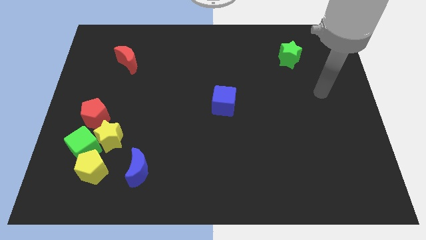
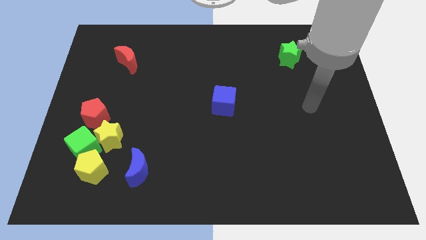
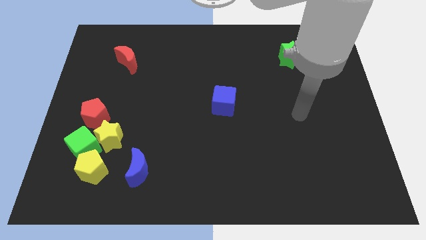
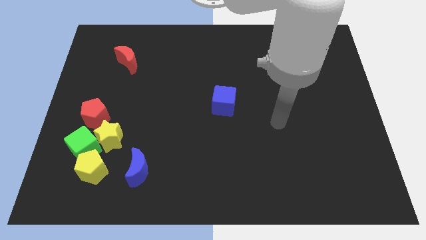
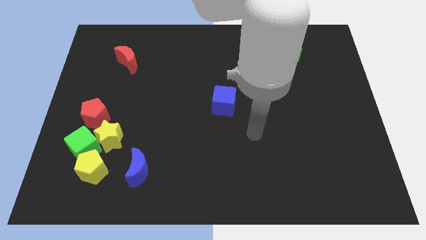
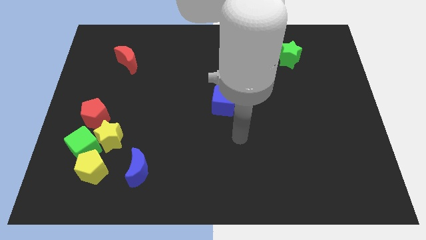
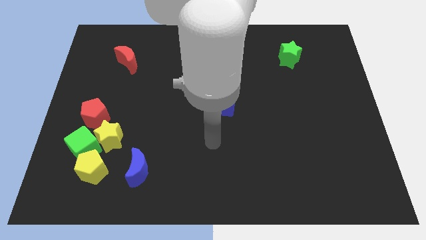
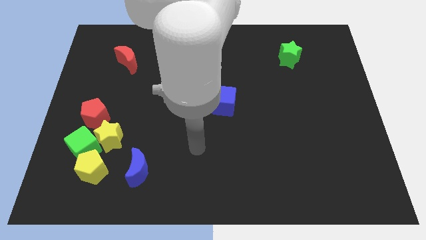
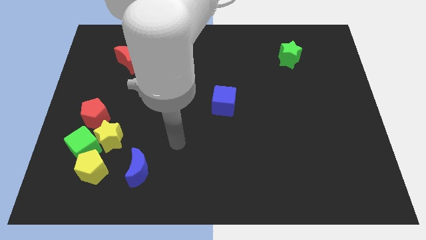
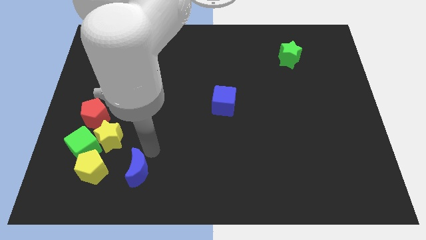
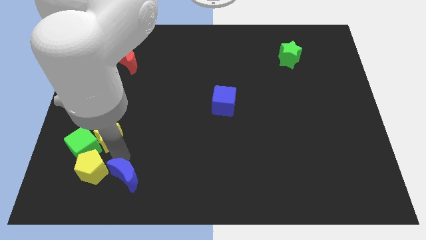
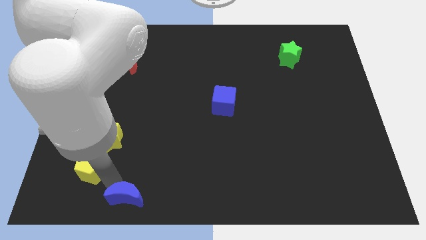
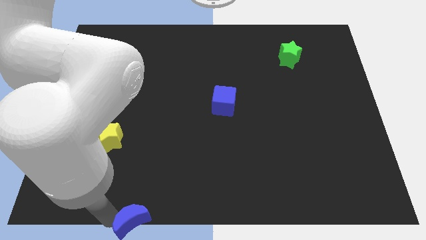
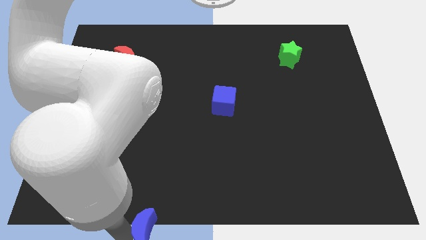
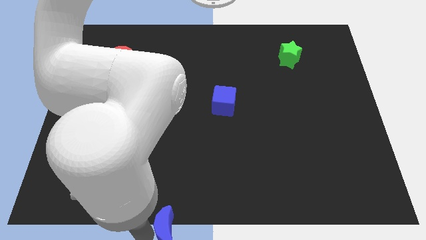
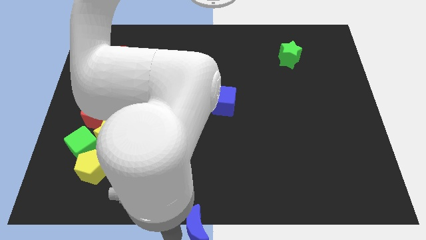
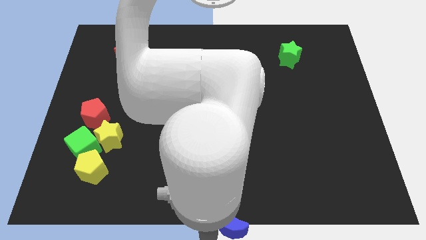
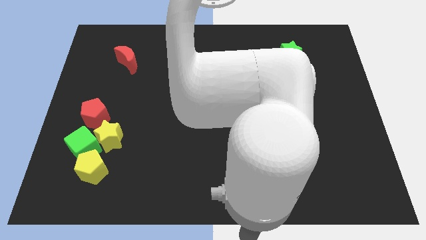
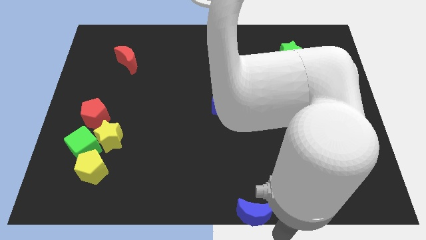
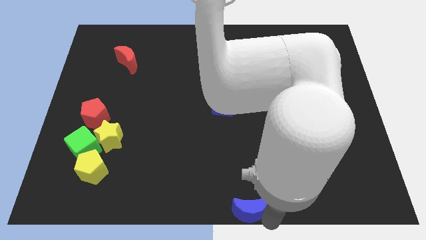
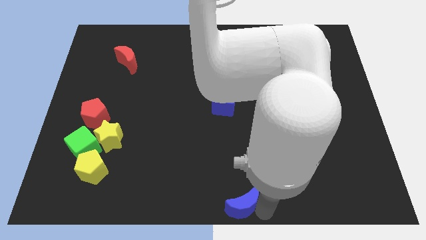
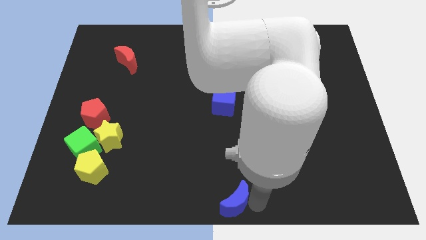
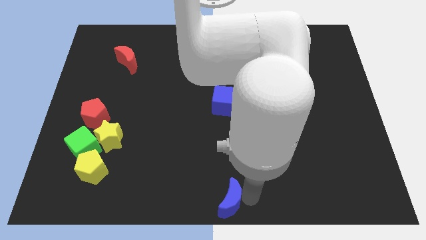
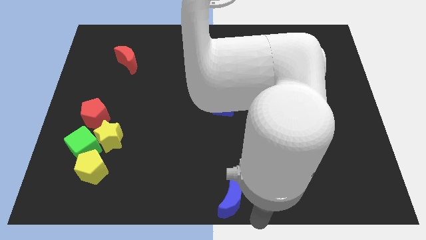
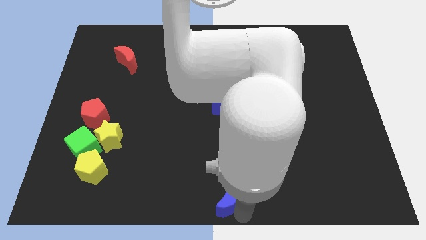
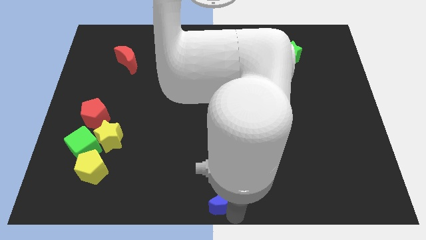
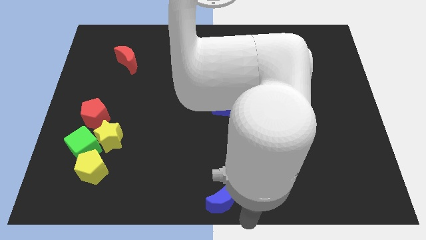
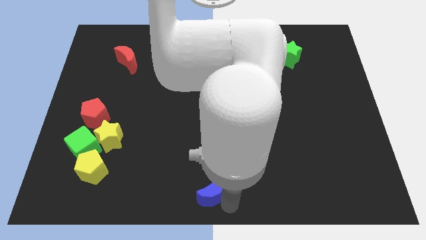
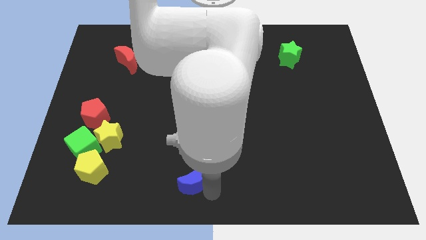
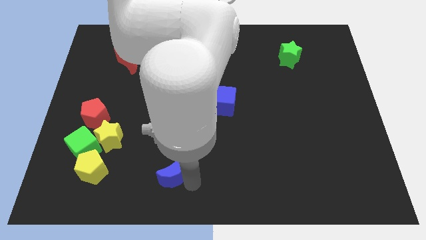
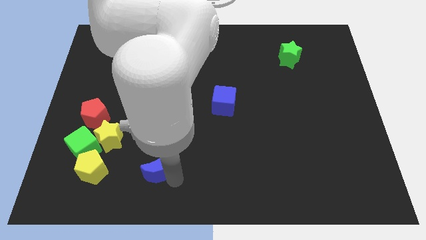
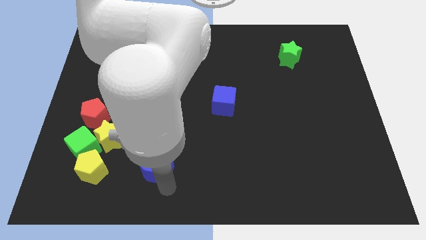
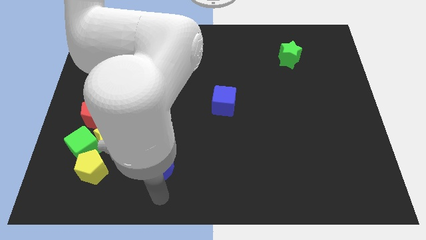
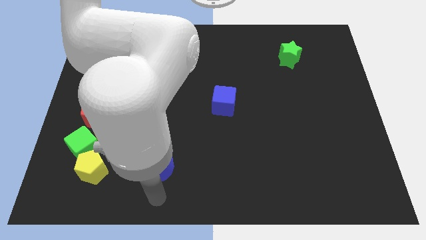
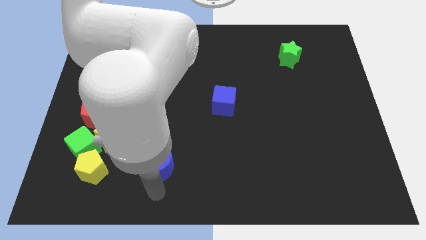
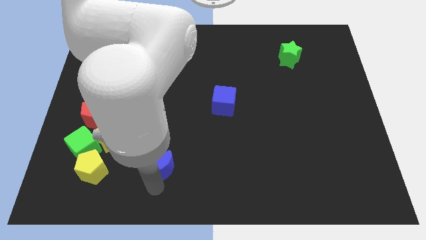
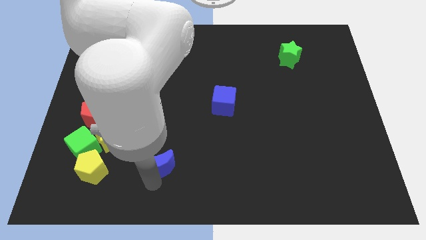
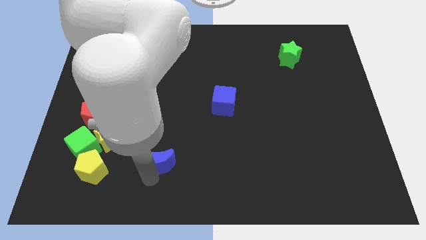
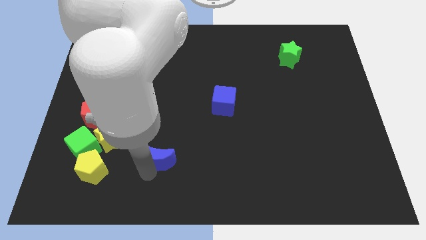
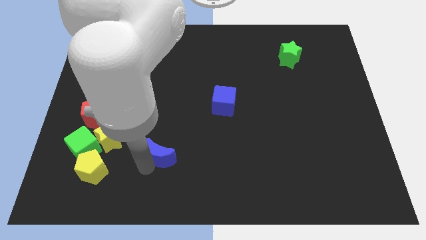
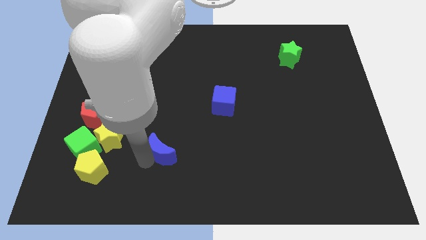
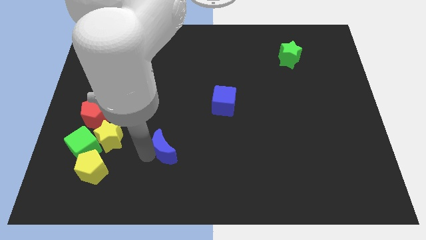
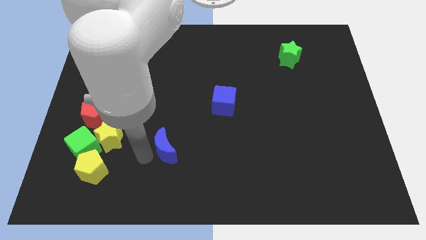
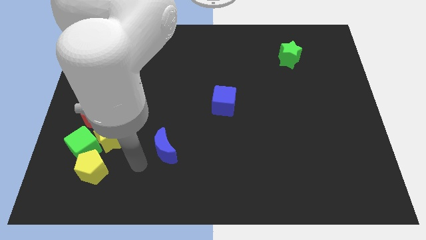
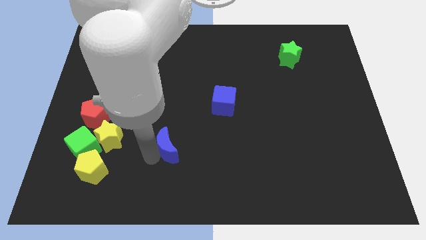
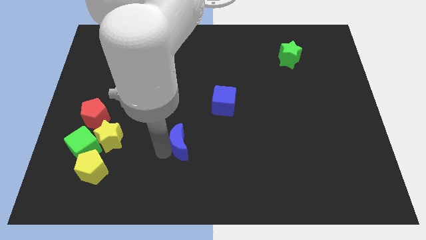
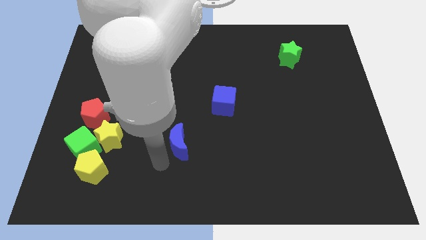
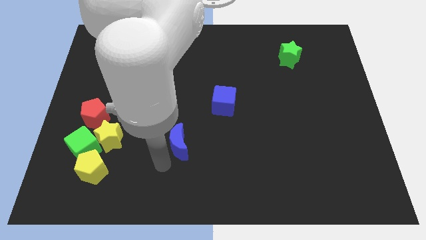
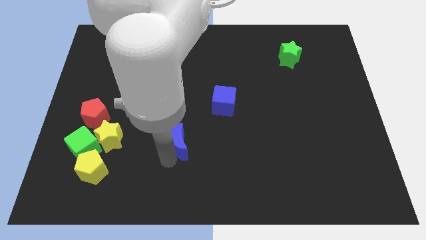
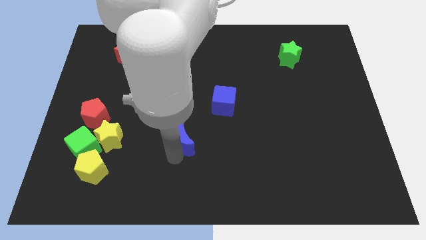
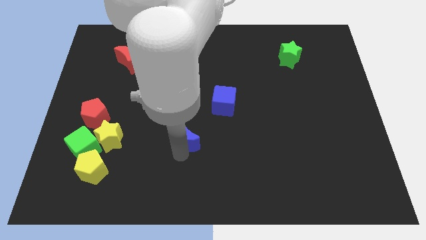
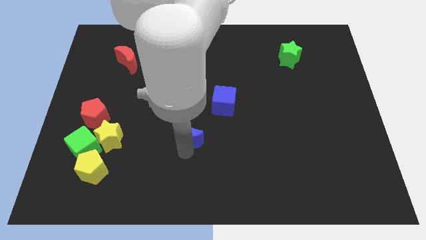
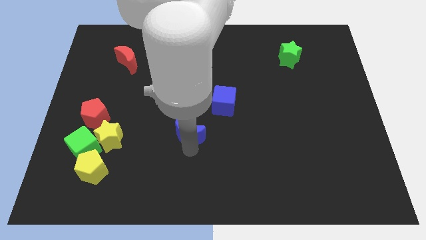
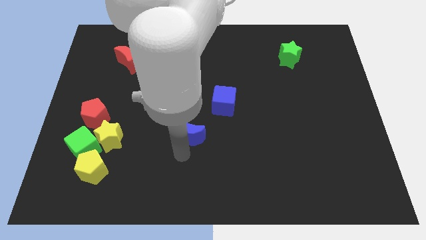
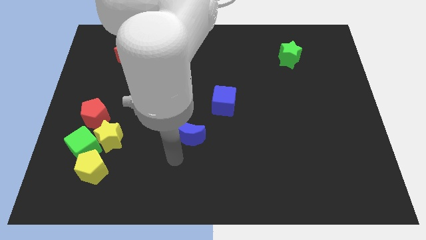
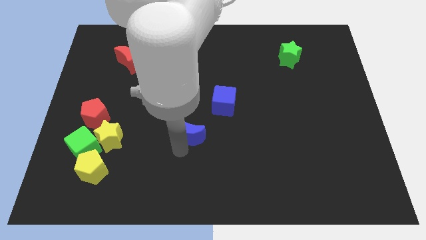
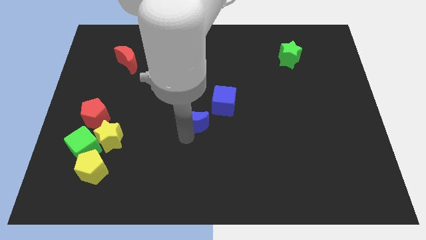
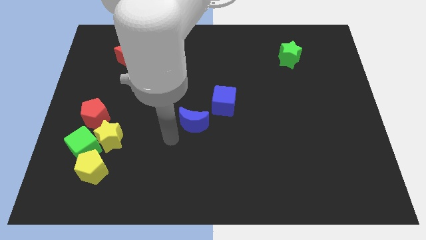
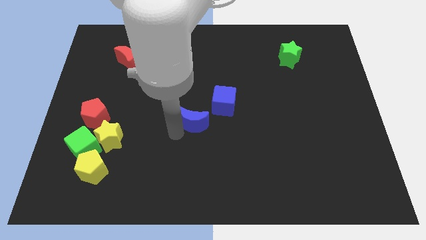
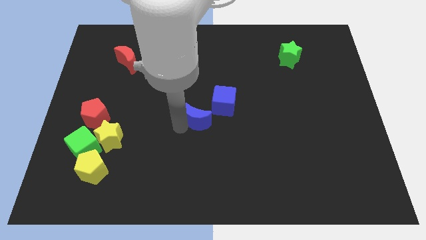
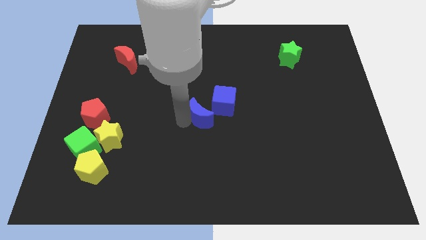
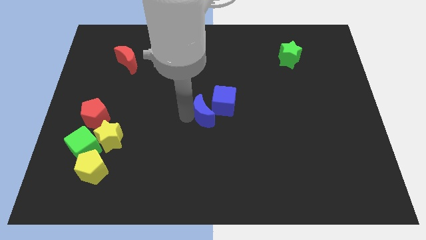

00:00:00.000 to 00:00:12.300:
push the blue moon close to the blue cube

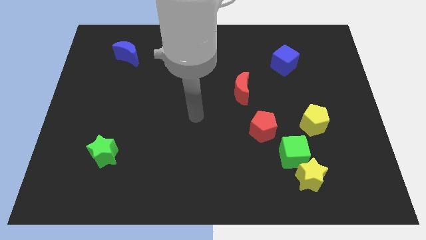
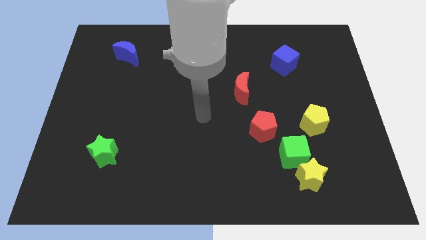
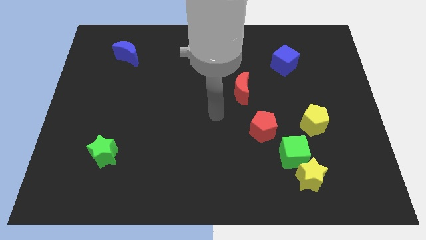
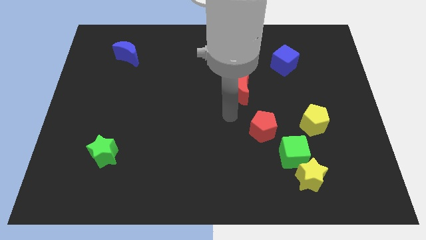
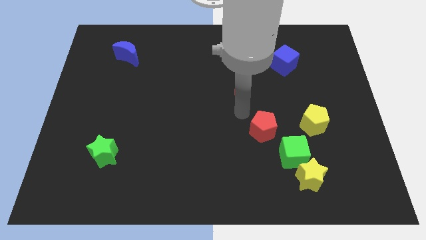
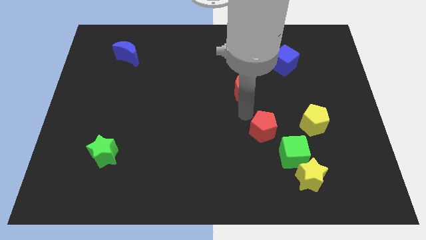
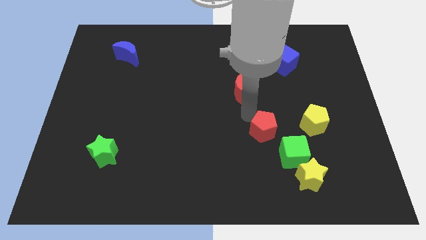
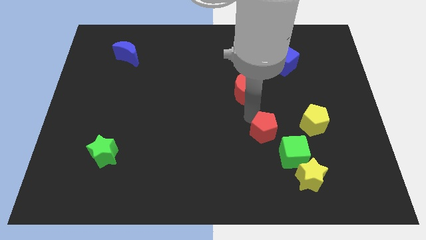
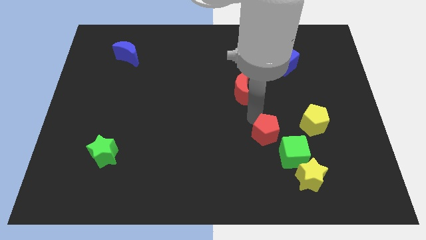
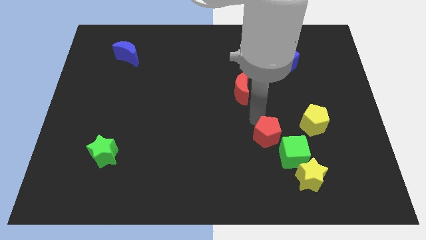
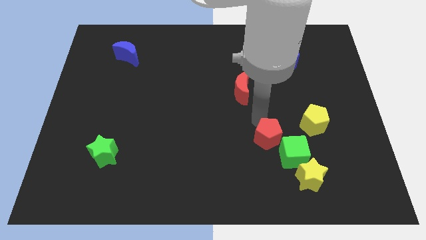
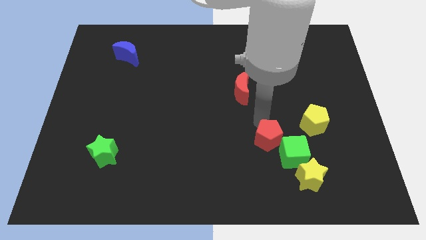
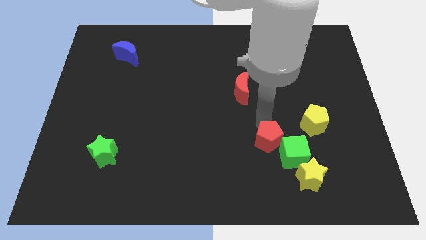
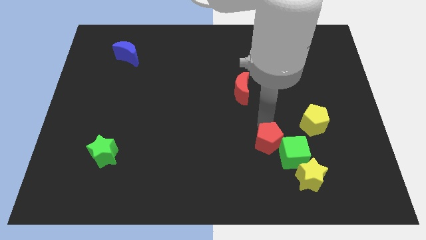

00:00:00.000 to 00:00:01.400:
put the red pentagon towards the green cube
